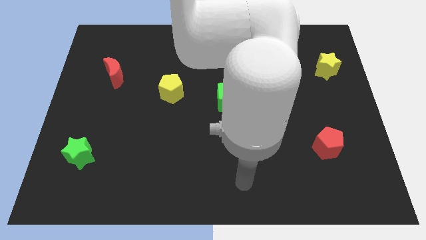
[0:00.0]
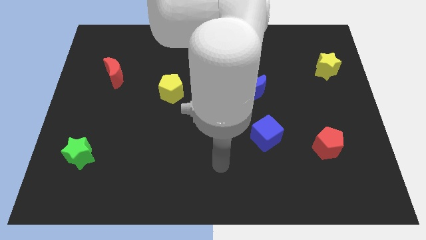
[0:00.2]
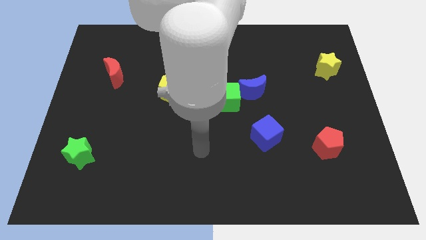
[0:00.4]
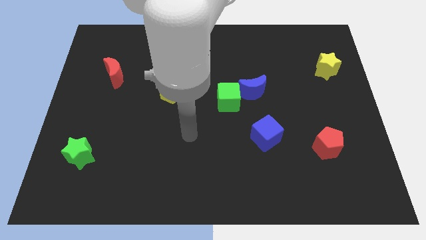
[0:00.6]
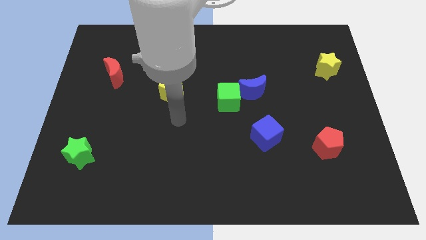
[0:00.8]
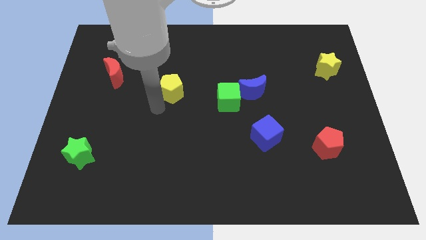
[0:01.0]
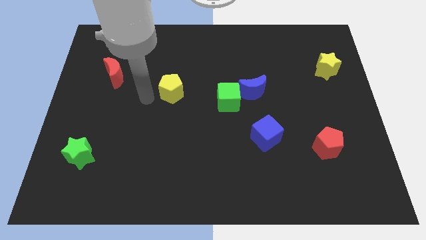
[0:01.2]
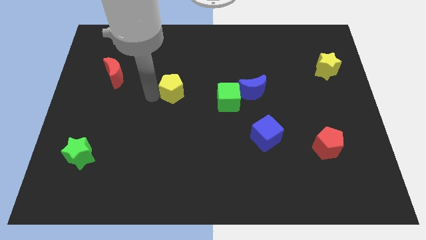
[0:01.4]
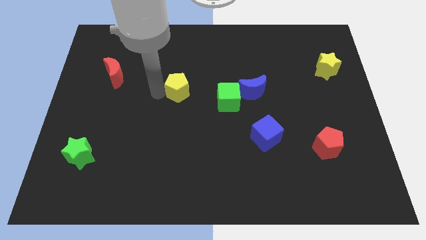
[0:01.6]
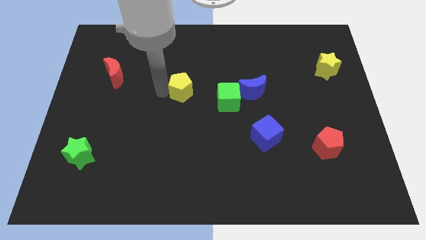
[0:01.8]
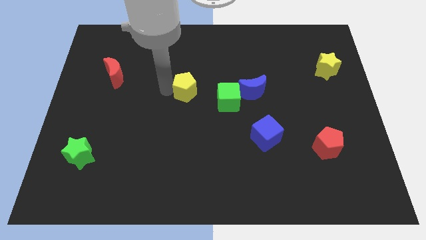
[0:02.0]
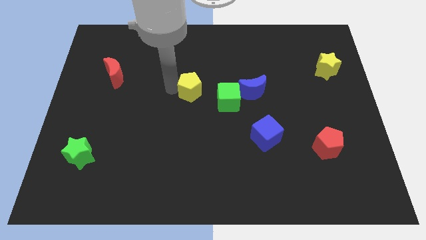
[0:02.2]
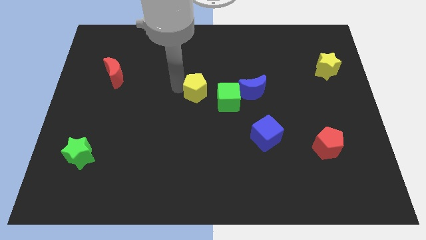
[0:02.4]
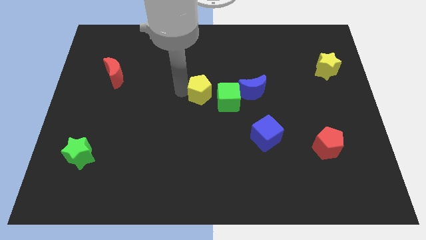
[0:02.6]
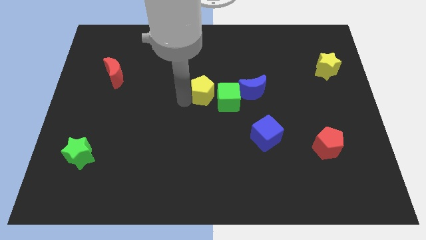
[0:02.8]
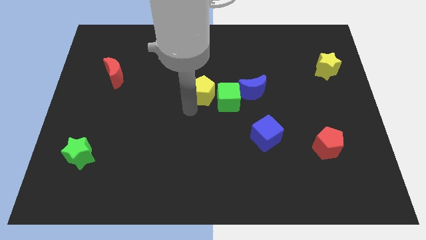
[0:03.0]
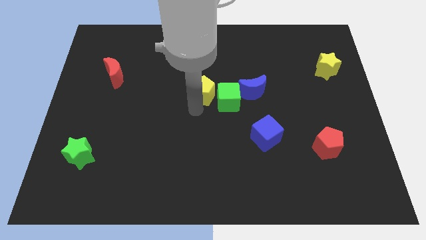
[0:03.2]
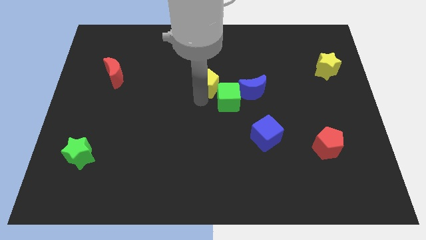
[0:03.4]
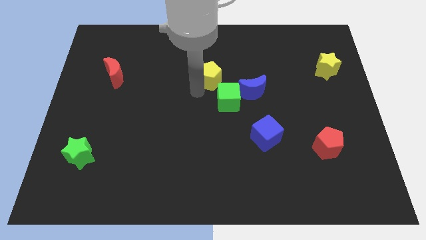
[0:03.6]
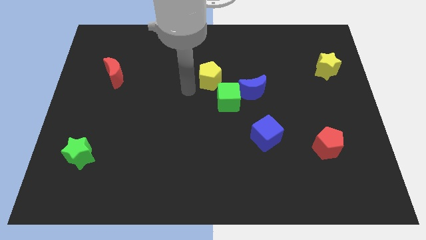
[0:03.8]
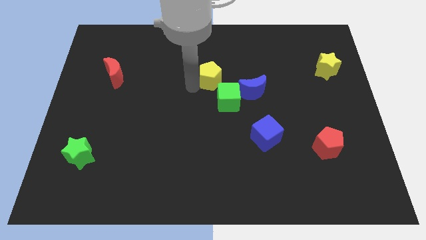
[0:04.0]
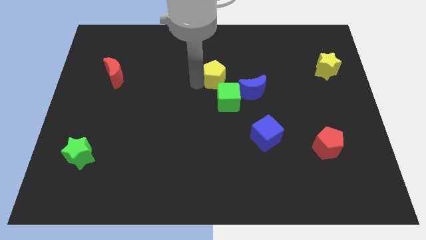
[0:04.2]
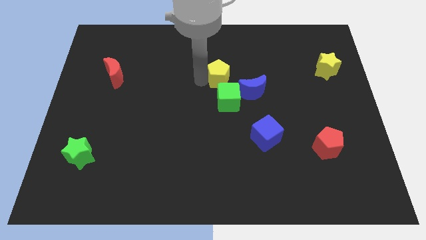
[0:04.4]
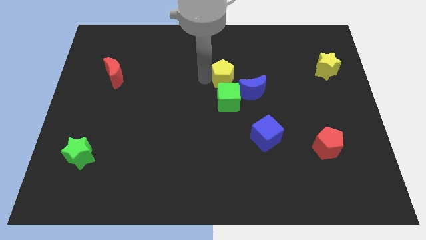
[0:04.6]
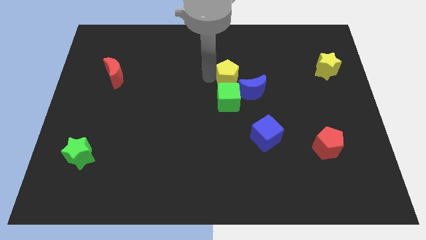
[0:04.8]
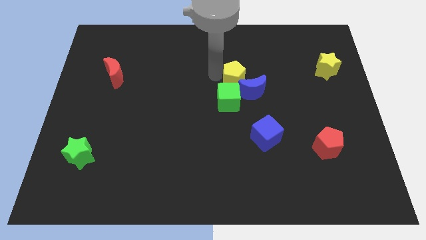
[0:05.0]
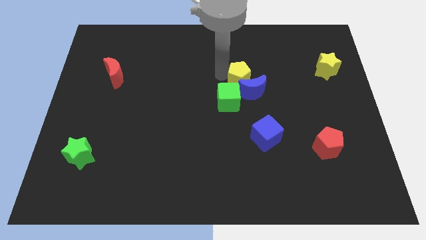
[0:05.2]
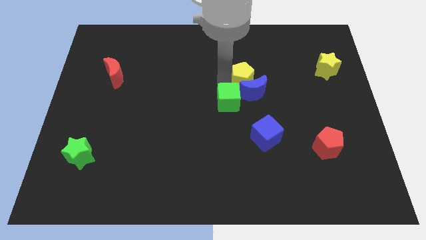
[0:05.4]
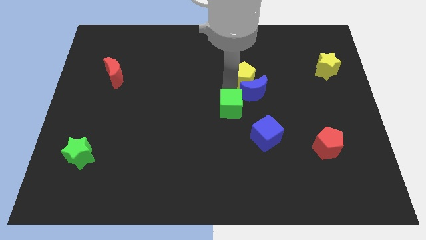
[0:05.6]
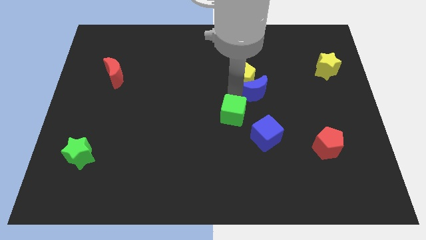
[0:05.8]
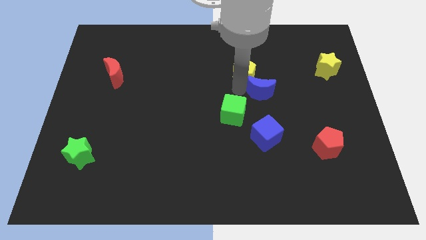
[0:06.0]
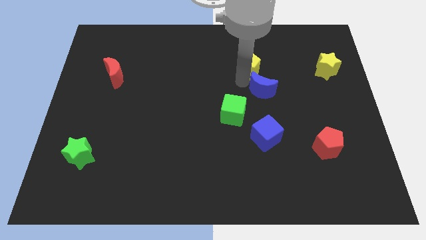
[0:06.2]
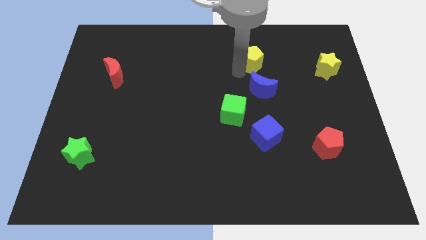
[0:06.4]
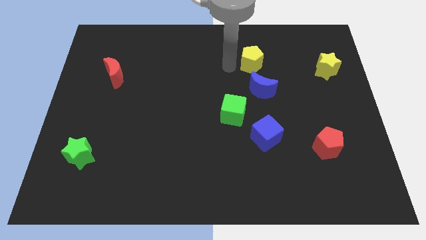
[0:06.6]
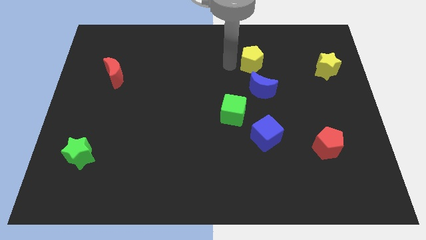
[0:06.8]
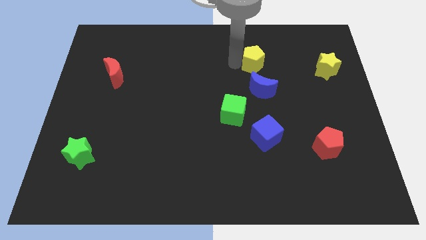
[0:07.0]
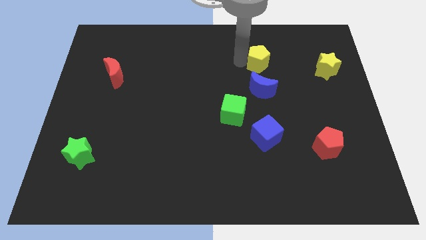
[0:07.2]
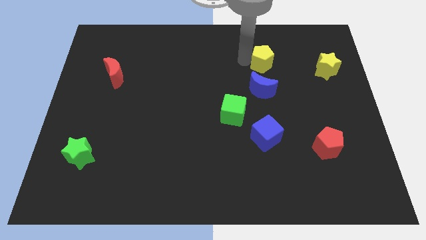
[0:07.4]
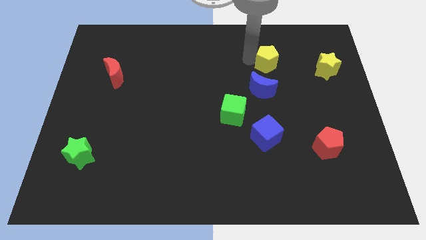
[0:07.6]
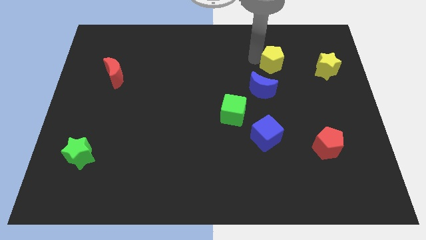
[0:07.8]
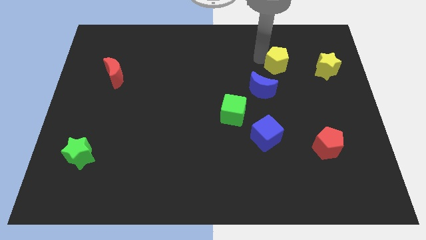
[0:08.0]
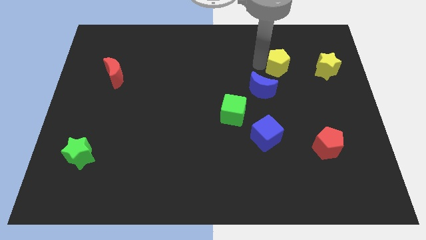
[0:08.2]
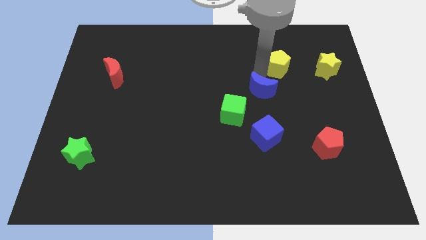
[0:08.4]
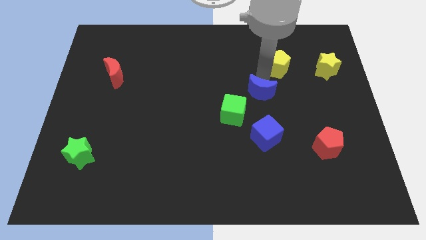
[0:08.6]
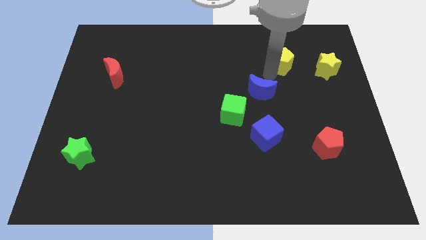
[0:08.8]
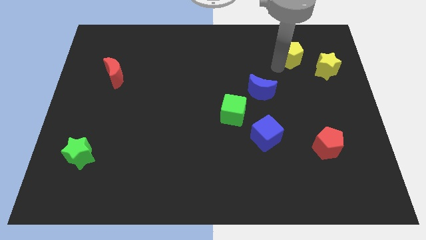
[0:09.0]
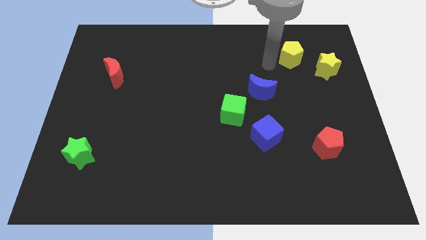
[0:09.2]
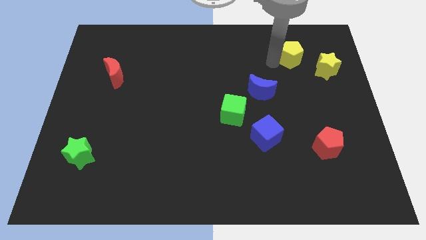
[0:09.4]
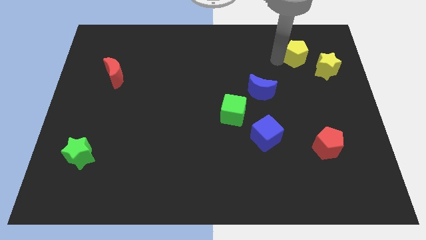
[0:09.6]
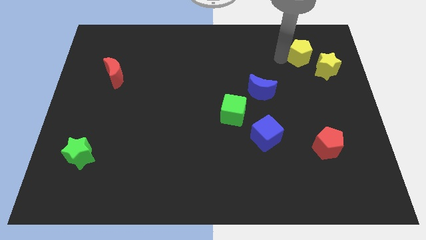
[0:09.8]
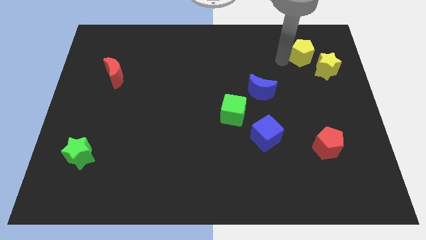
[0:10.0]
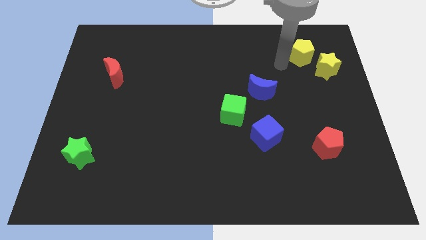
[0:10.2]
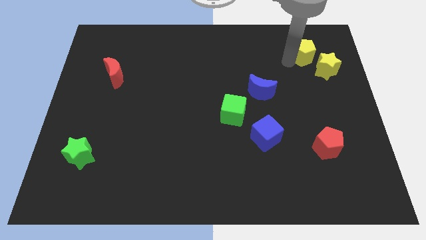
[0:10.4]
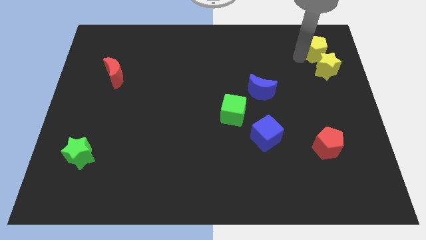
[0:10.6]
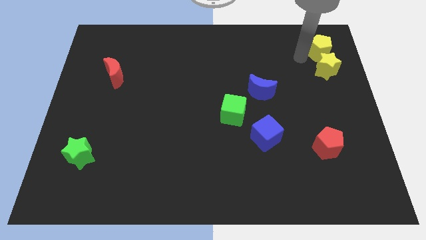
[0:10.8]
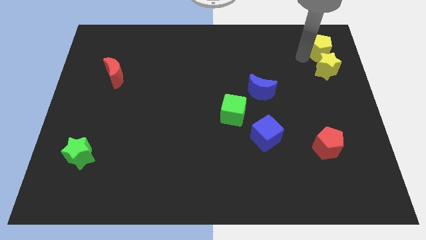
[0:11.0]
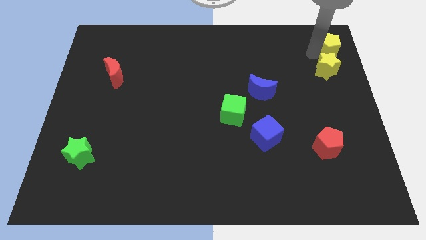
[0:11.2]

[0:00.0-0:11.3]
push the yellow pentagon to the top right

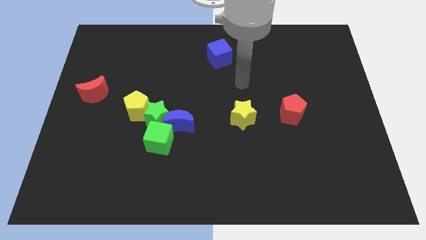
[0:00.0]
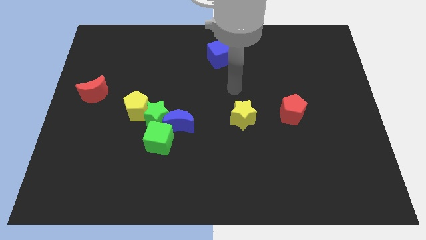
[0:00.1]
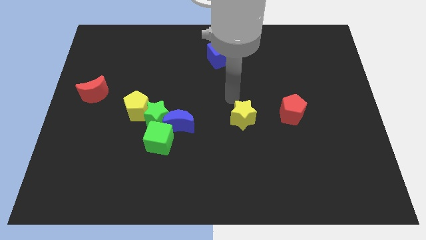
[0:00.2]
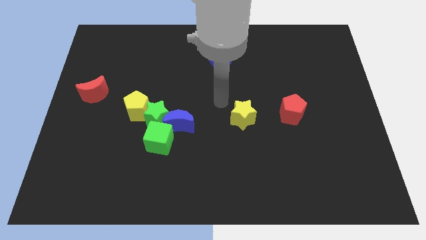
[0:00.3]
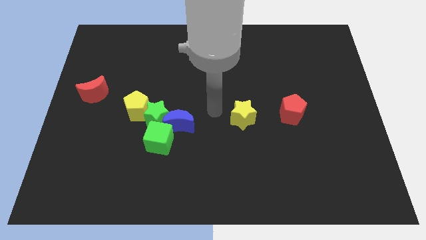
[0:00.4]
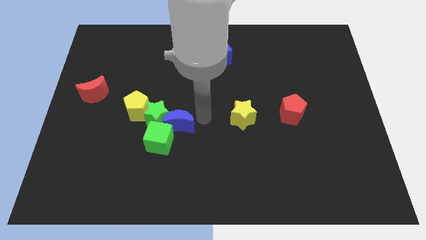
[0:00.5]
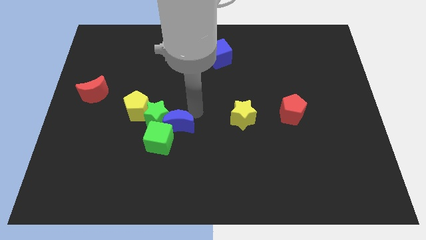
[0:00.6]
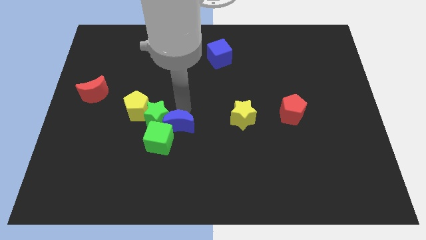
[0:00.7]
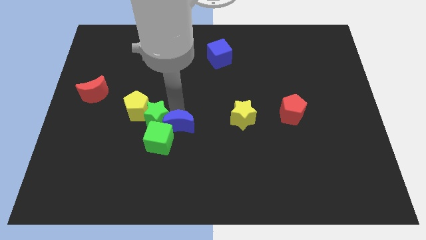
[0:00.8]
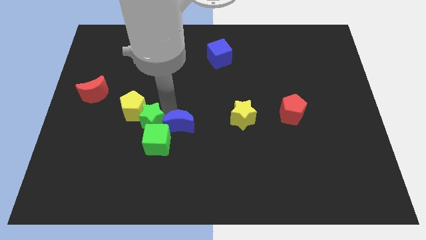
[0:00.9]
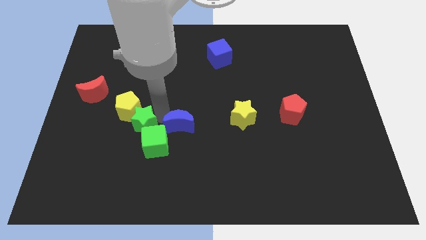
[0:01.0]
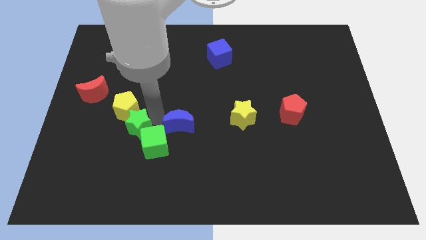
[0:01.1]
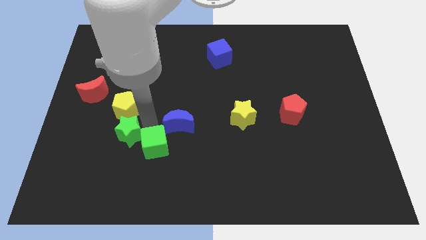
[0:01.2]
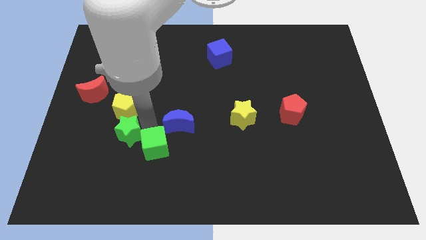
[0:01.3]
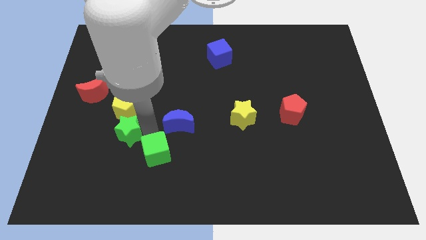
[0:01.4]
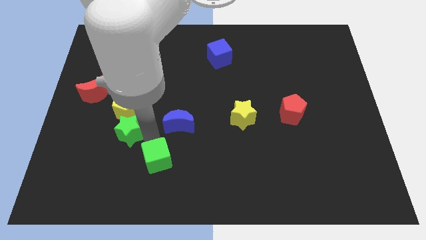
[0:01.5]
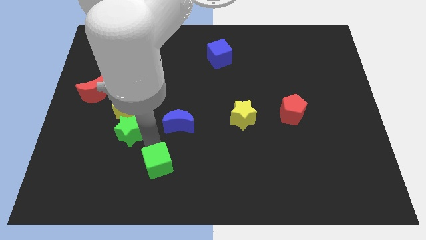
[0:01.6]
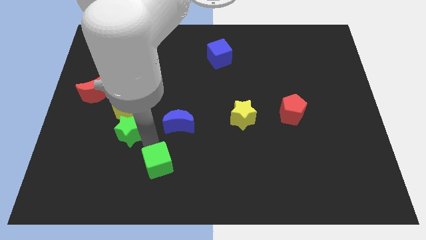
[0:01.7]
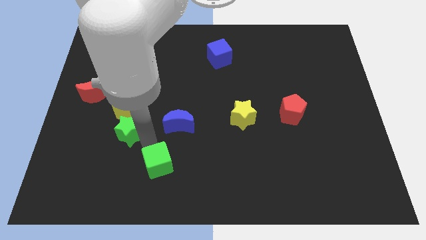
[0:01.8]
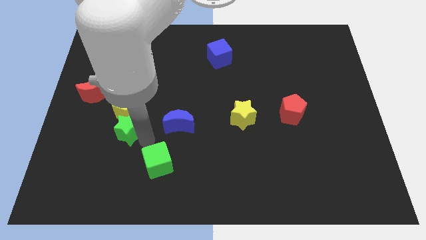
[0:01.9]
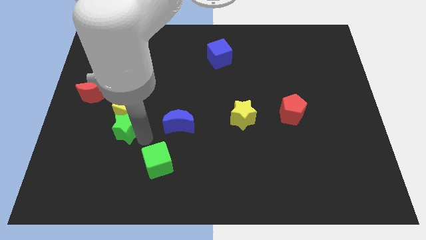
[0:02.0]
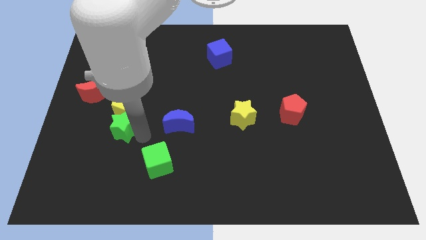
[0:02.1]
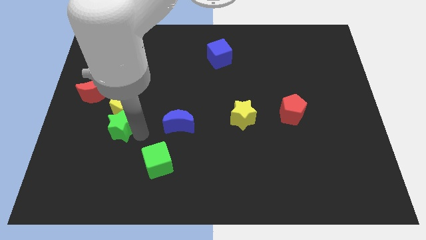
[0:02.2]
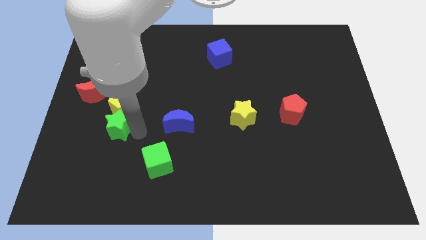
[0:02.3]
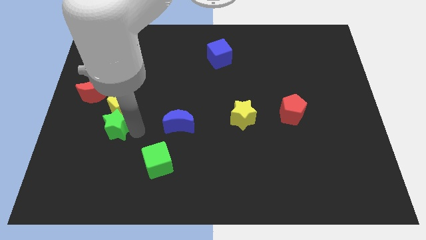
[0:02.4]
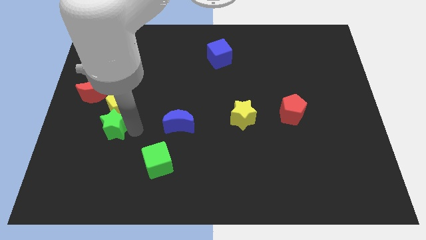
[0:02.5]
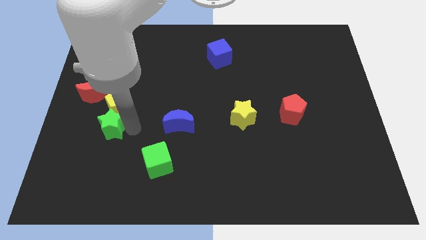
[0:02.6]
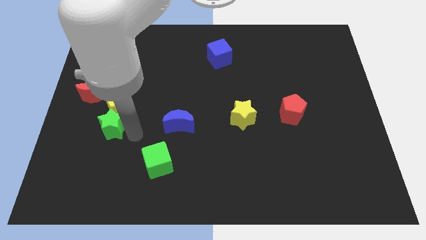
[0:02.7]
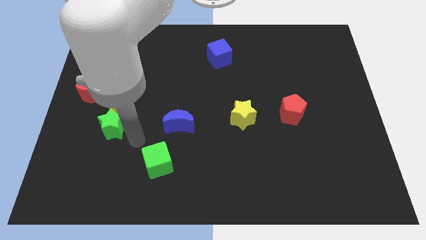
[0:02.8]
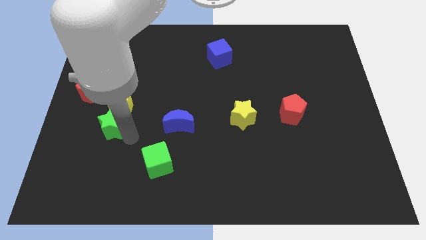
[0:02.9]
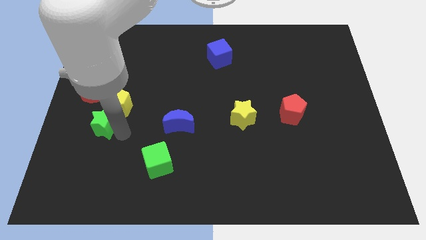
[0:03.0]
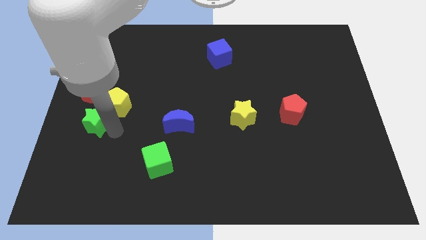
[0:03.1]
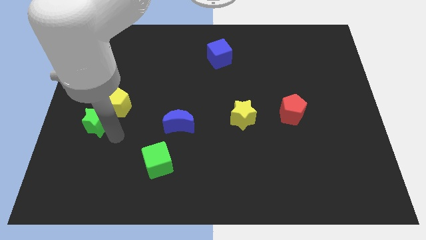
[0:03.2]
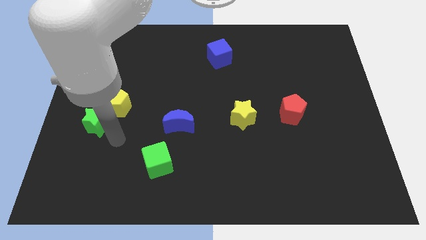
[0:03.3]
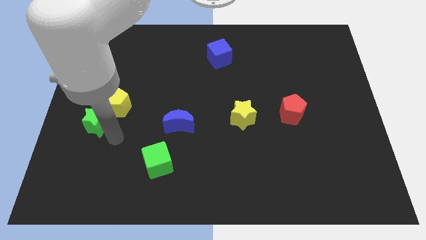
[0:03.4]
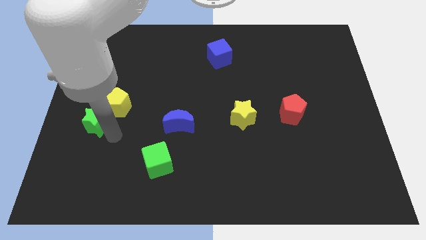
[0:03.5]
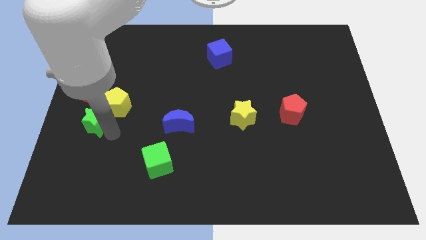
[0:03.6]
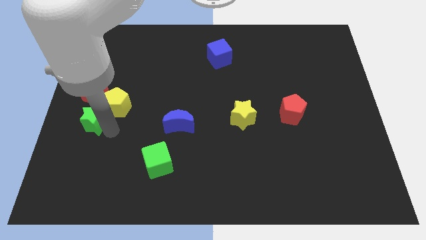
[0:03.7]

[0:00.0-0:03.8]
slide the green star to the center left
